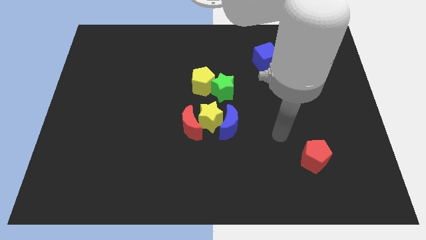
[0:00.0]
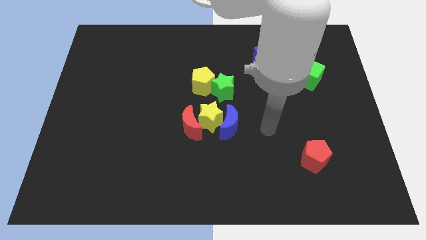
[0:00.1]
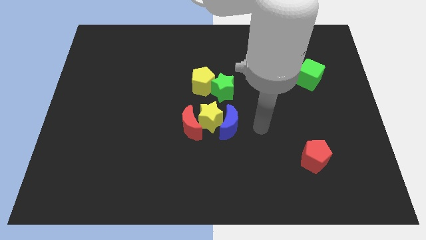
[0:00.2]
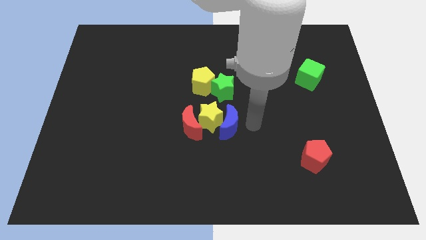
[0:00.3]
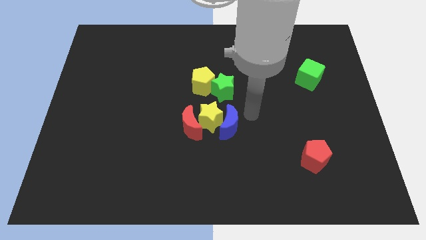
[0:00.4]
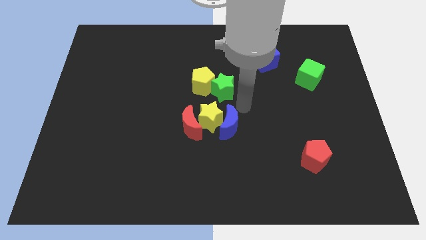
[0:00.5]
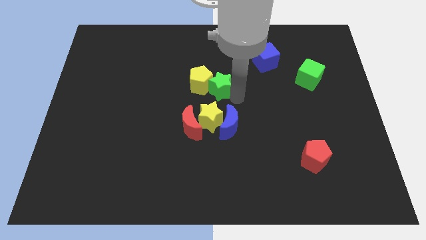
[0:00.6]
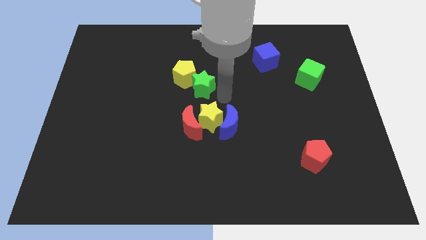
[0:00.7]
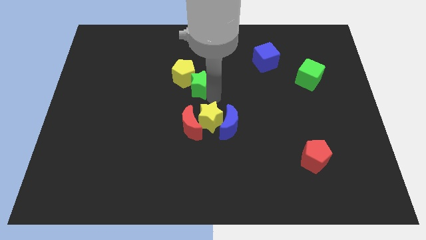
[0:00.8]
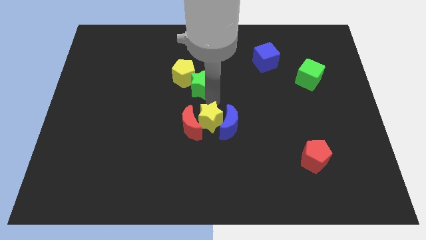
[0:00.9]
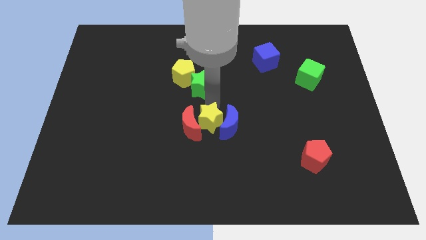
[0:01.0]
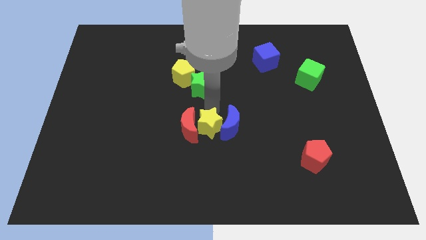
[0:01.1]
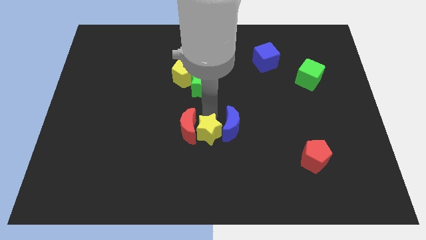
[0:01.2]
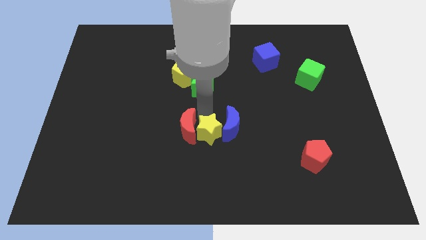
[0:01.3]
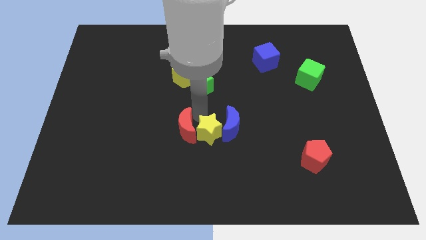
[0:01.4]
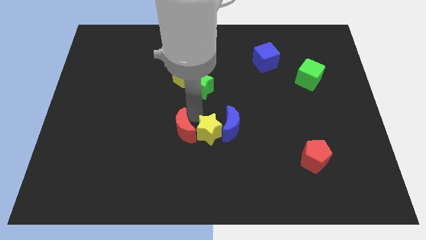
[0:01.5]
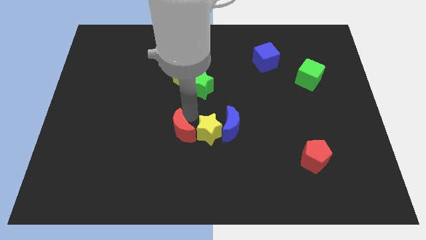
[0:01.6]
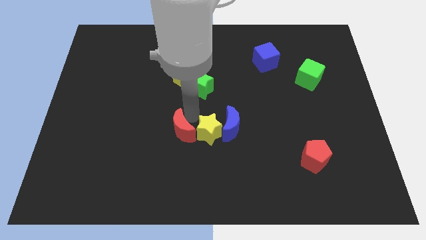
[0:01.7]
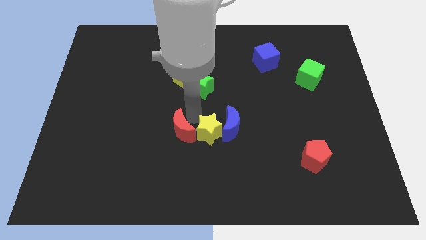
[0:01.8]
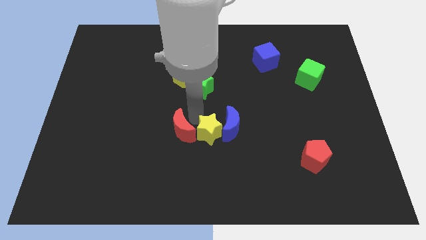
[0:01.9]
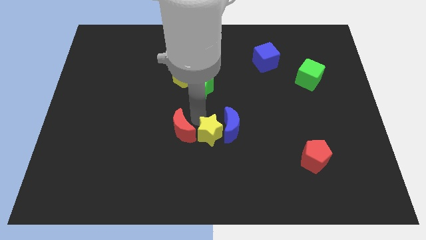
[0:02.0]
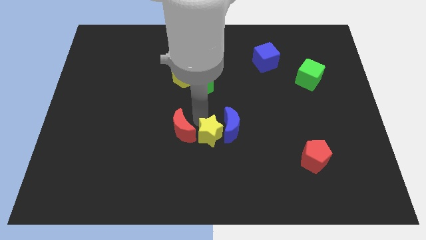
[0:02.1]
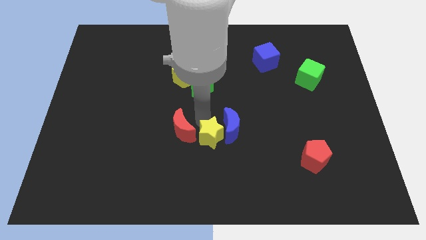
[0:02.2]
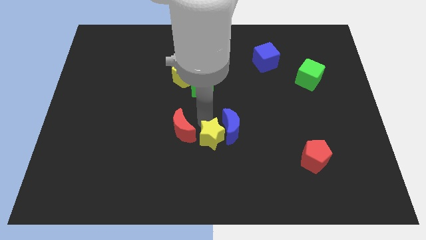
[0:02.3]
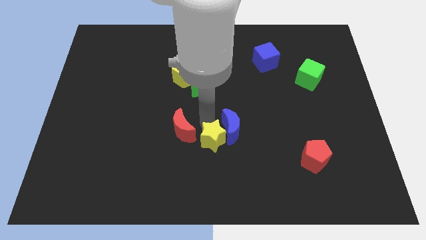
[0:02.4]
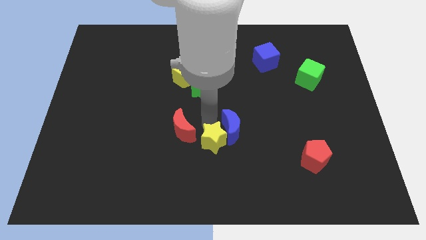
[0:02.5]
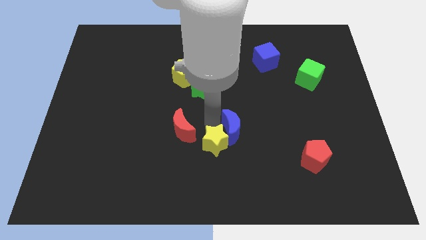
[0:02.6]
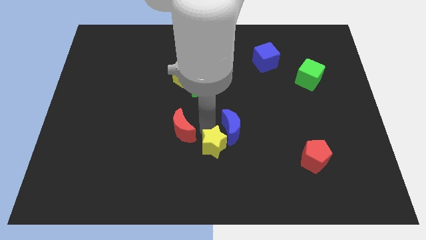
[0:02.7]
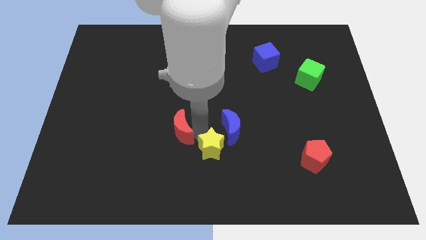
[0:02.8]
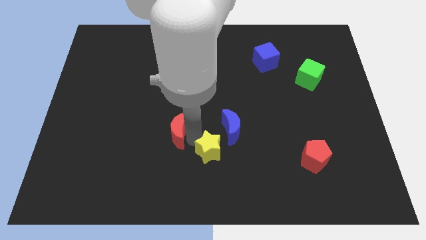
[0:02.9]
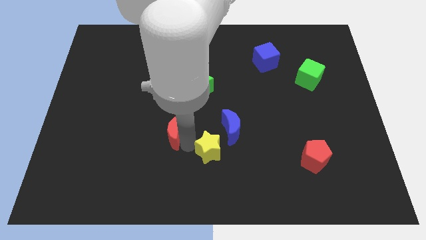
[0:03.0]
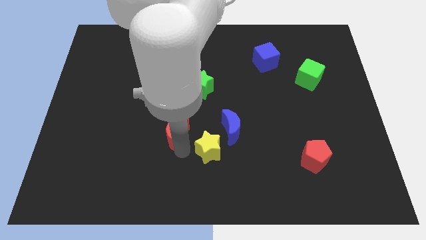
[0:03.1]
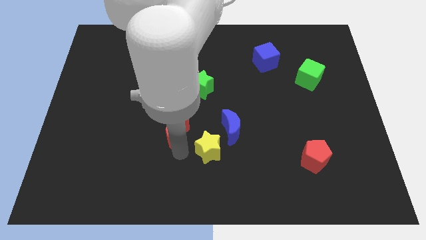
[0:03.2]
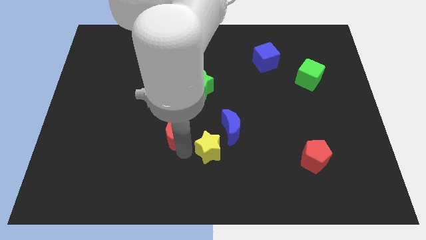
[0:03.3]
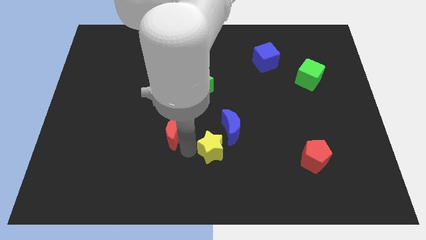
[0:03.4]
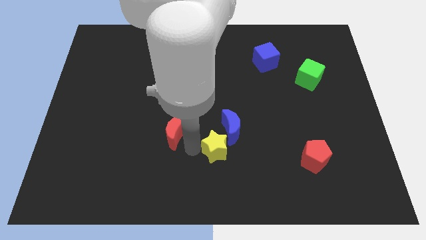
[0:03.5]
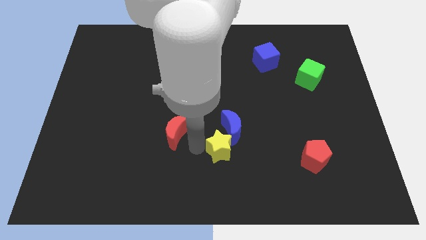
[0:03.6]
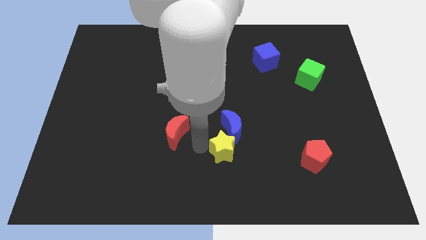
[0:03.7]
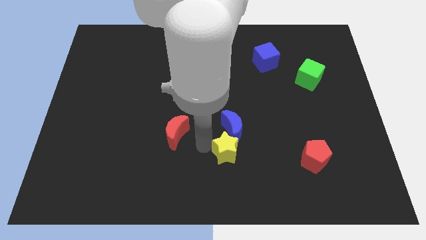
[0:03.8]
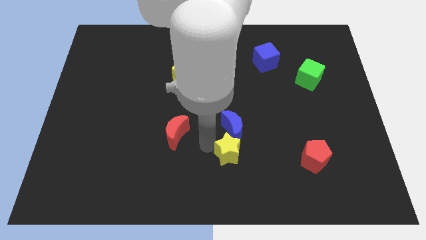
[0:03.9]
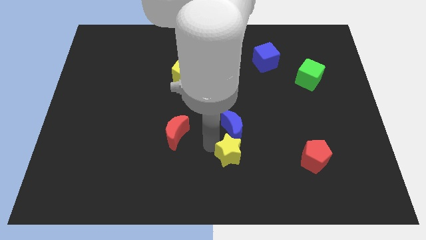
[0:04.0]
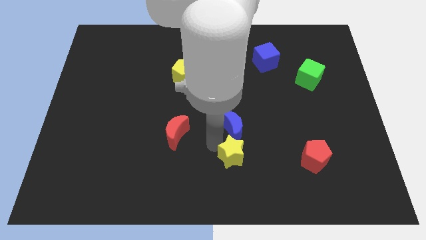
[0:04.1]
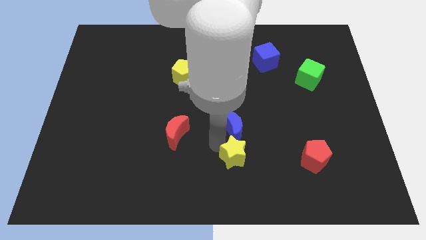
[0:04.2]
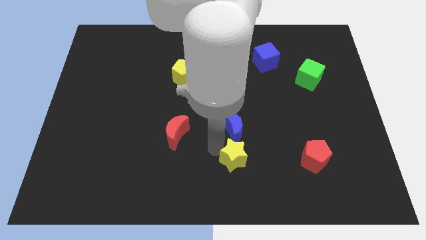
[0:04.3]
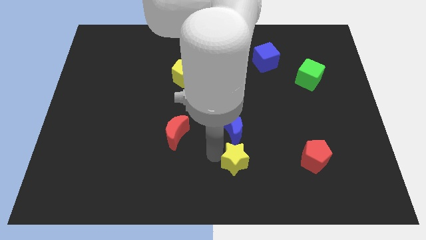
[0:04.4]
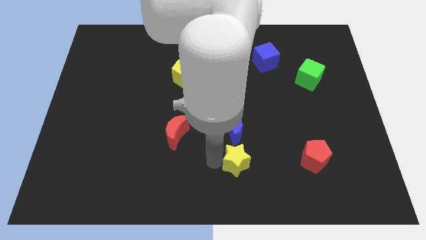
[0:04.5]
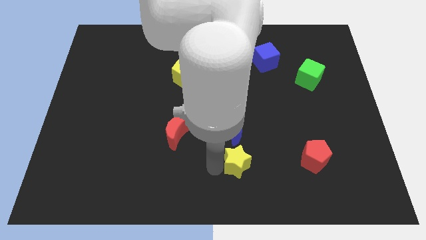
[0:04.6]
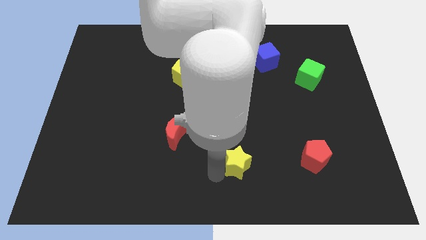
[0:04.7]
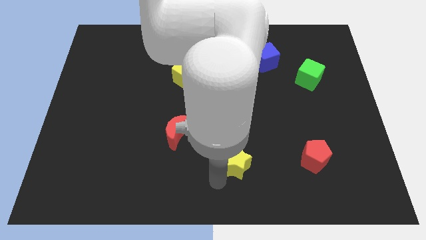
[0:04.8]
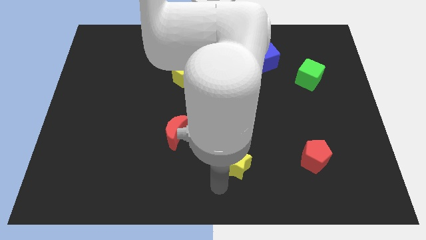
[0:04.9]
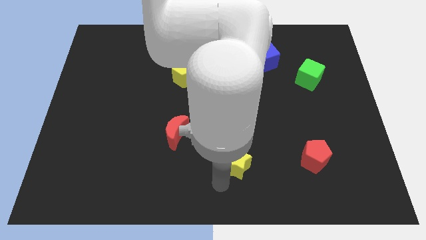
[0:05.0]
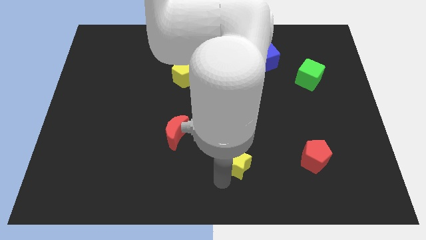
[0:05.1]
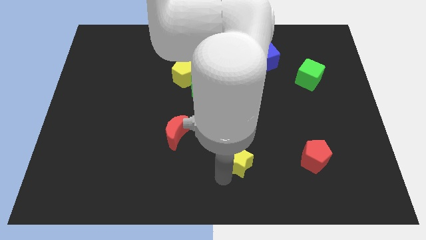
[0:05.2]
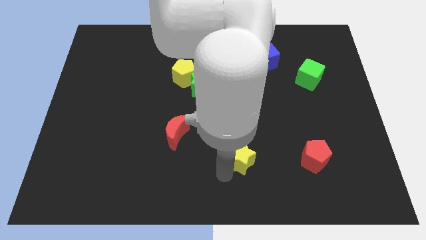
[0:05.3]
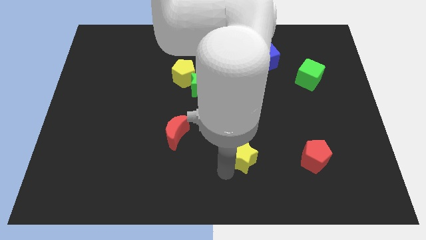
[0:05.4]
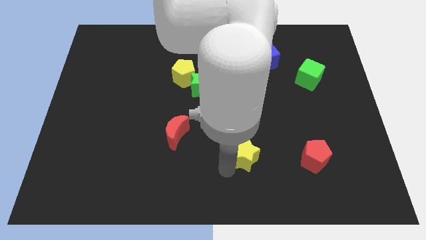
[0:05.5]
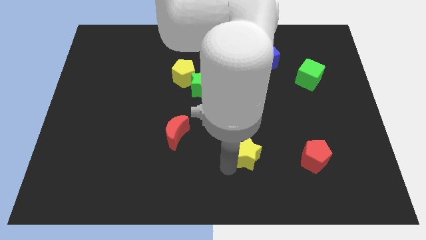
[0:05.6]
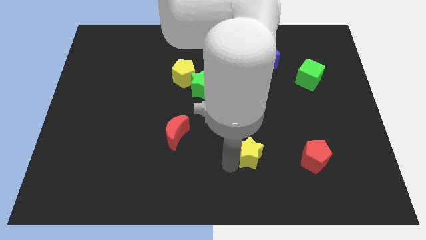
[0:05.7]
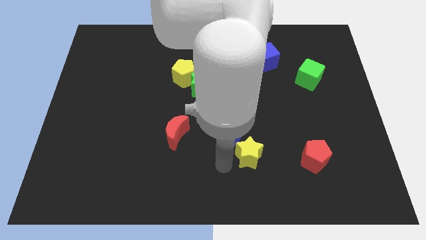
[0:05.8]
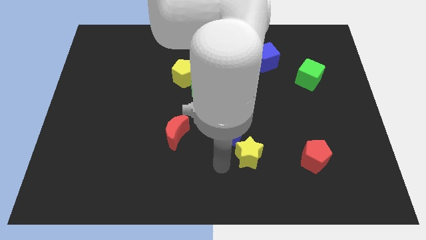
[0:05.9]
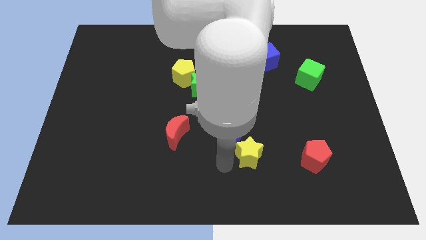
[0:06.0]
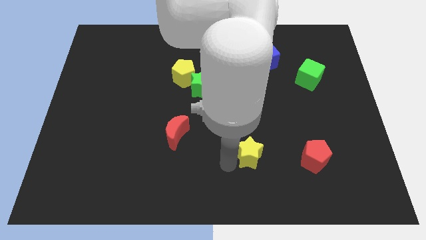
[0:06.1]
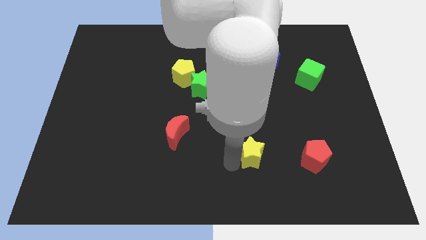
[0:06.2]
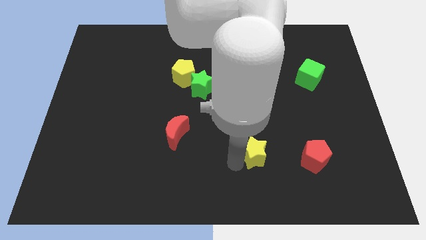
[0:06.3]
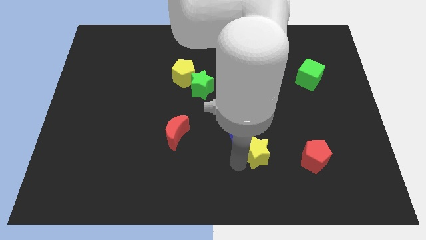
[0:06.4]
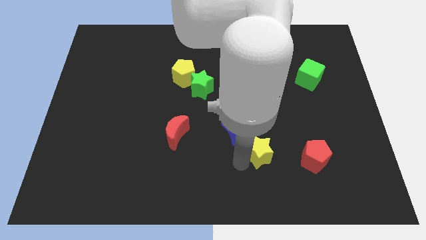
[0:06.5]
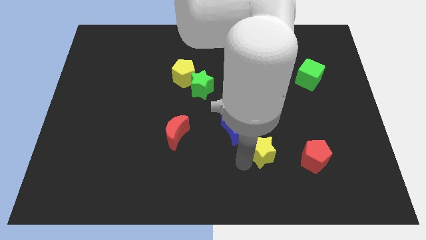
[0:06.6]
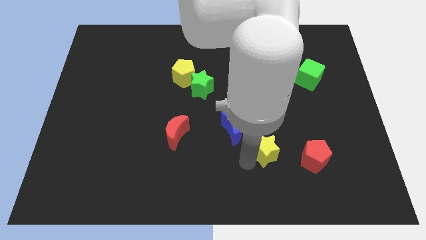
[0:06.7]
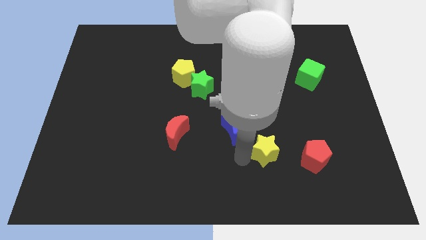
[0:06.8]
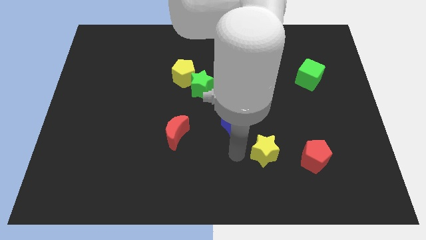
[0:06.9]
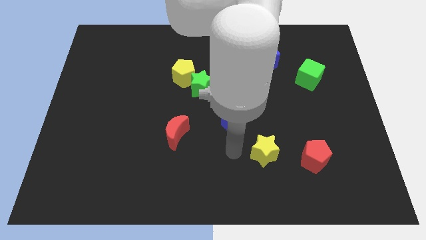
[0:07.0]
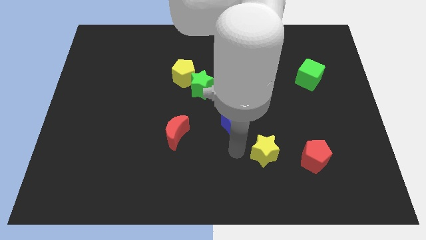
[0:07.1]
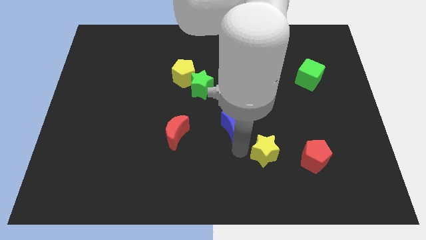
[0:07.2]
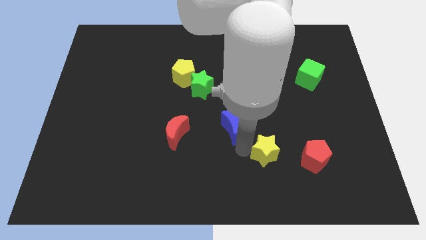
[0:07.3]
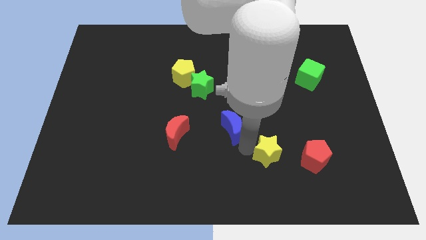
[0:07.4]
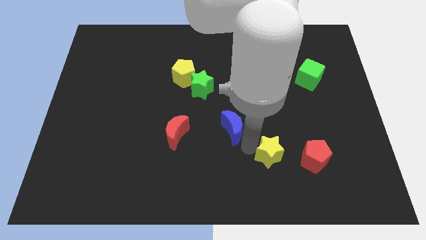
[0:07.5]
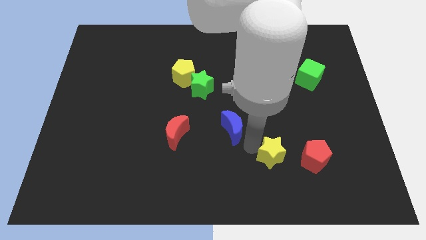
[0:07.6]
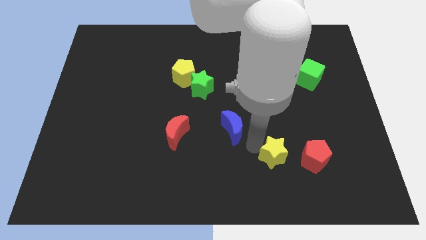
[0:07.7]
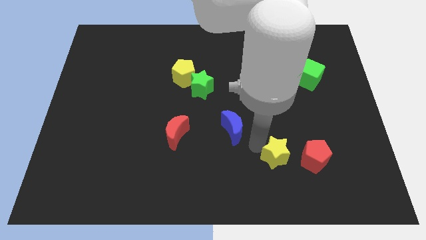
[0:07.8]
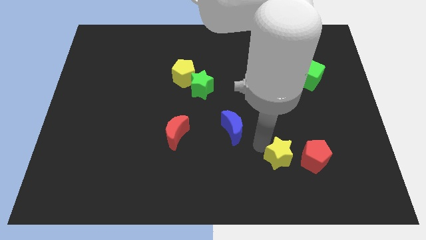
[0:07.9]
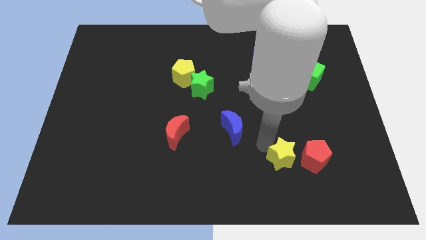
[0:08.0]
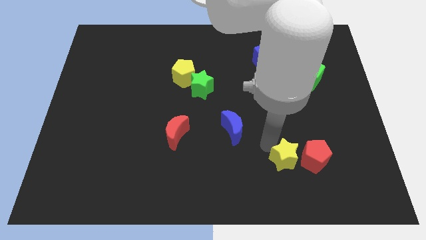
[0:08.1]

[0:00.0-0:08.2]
move the yellow star to the red pentagon
